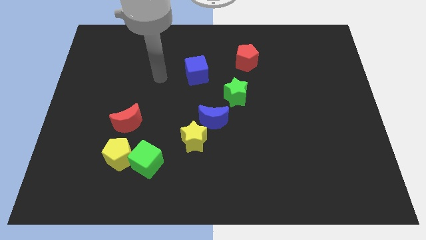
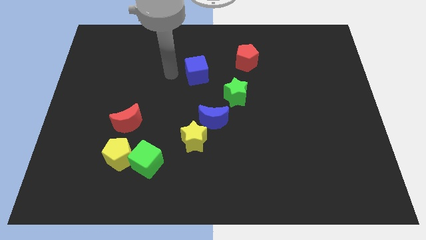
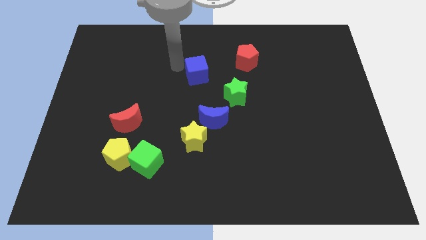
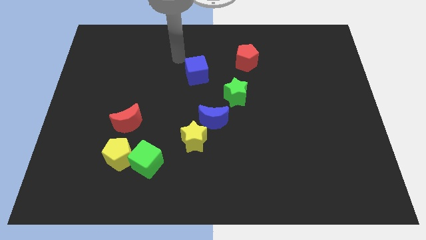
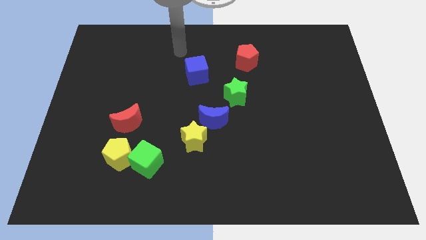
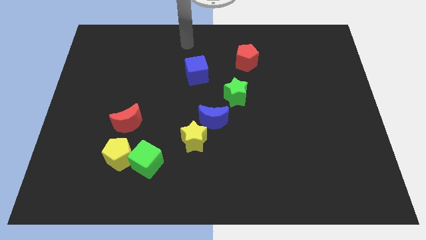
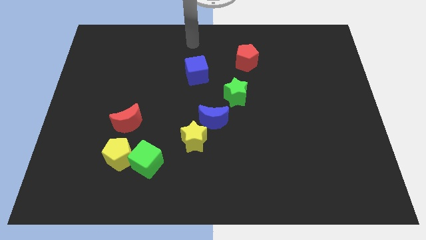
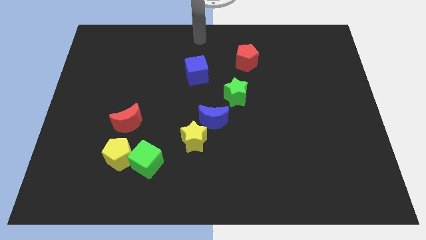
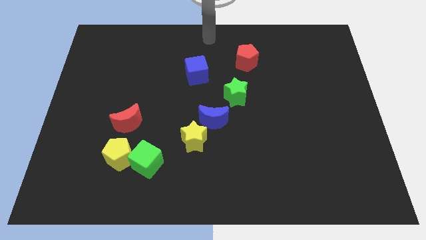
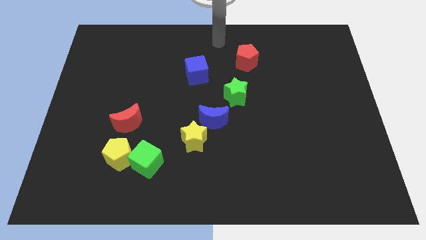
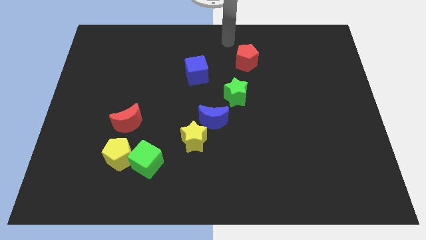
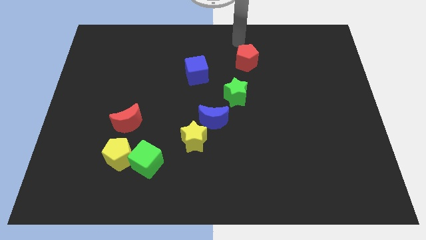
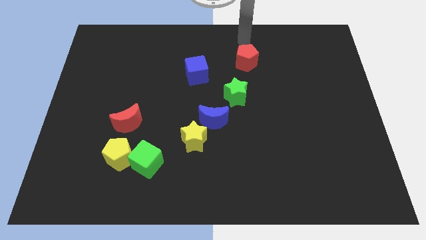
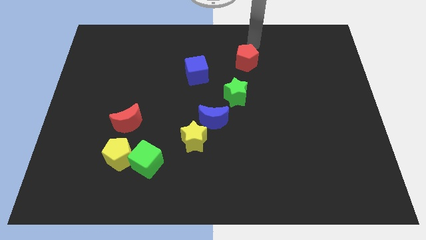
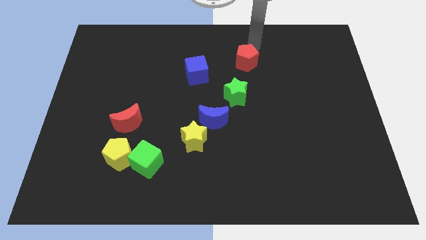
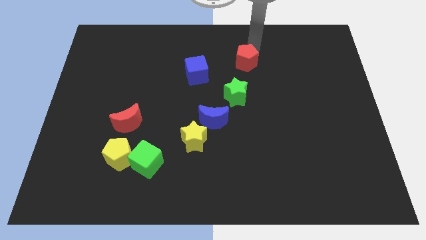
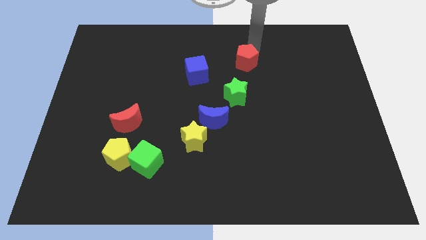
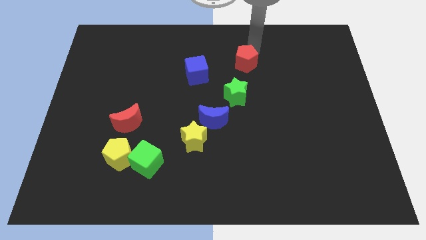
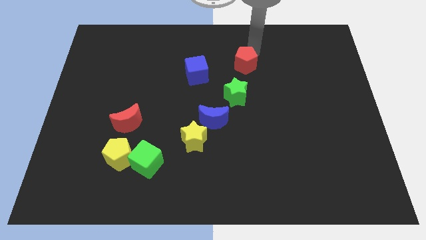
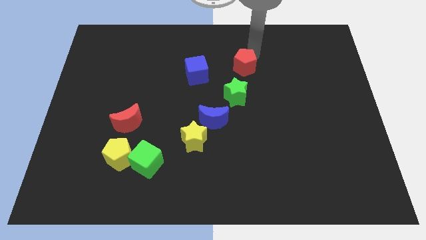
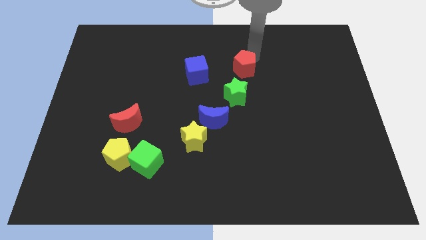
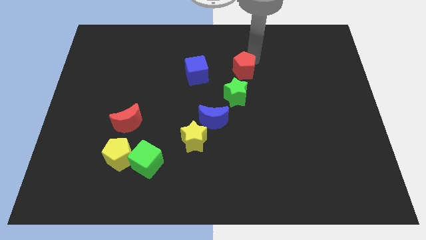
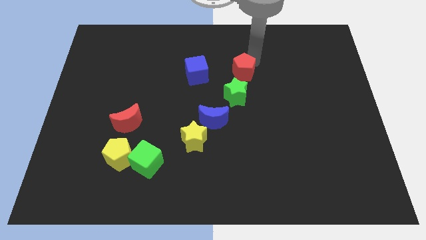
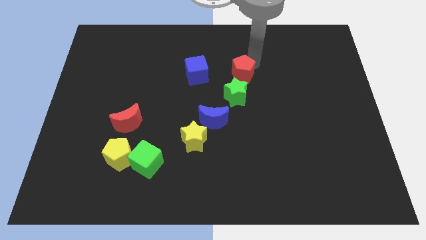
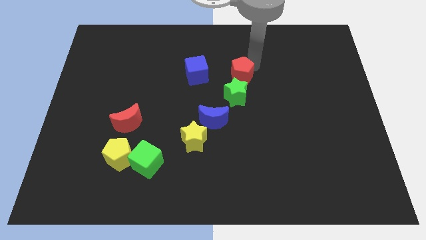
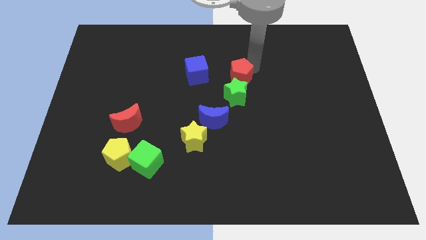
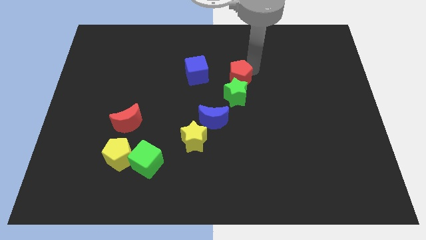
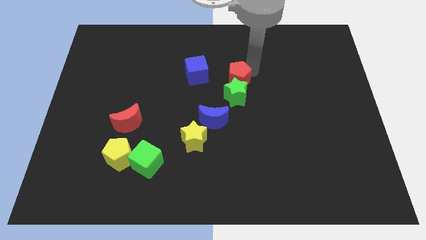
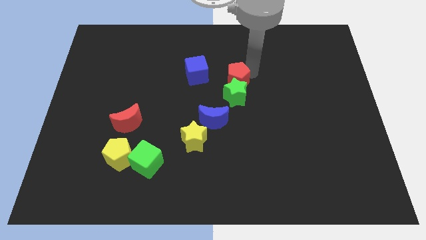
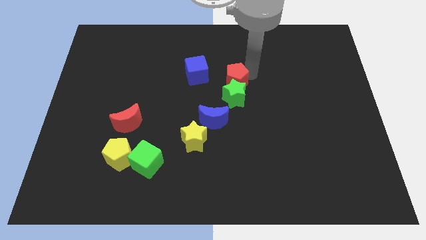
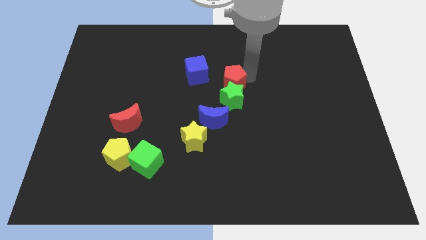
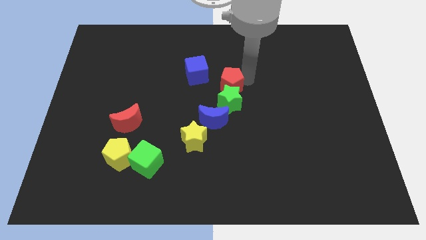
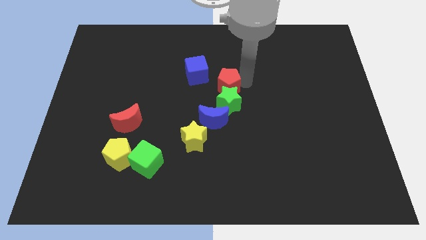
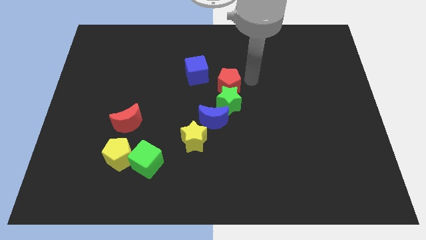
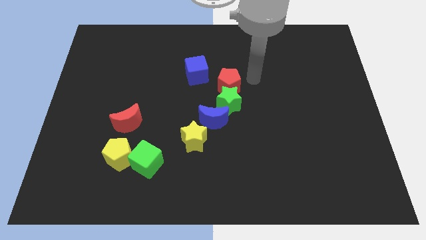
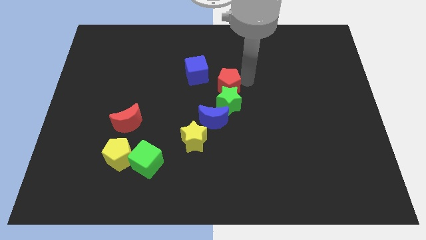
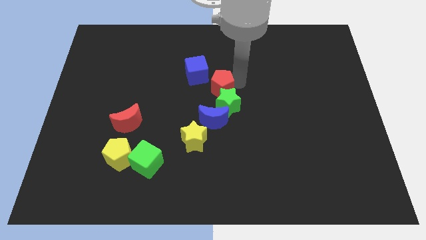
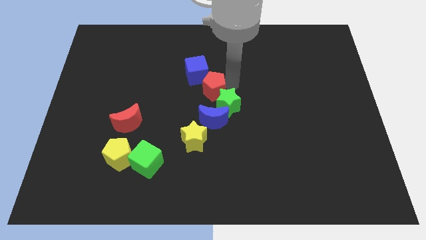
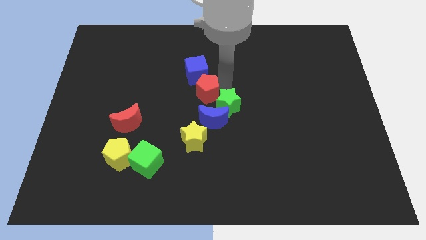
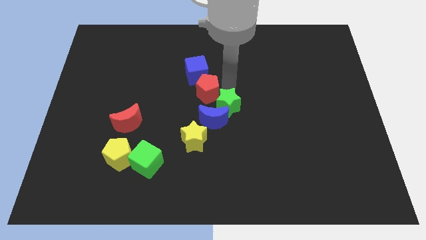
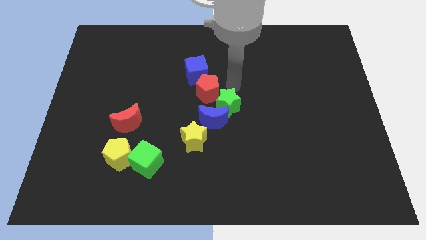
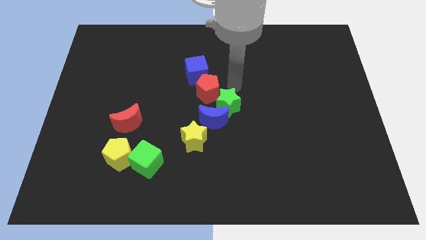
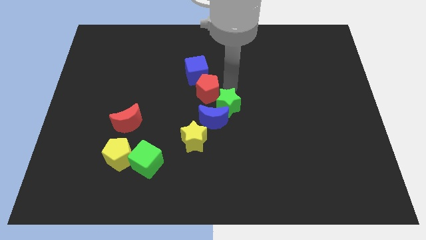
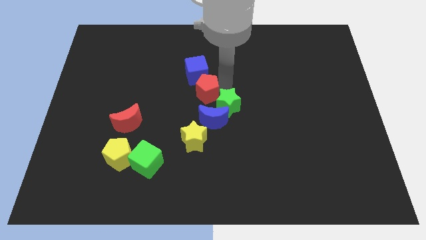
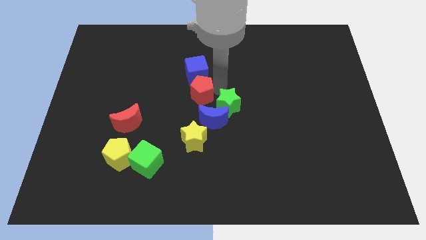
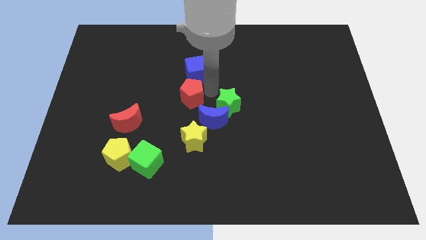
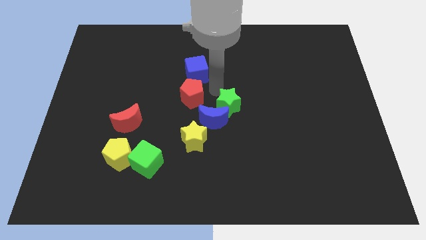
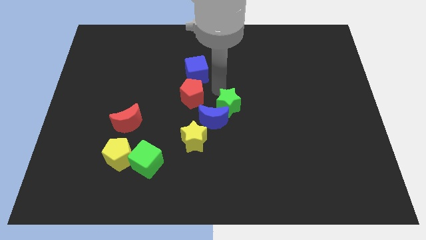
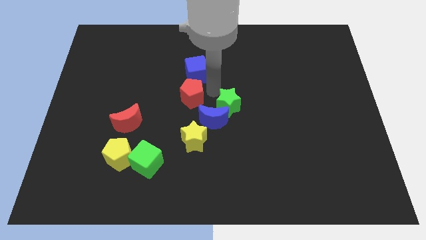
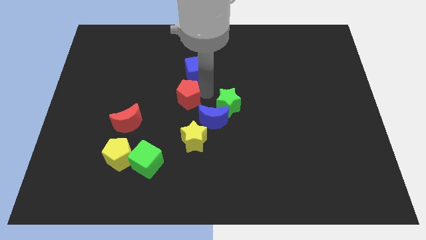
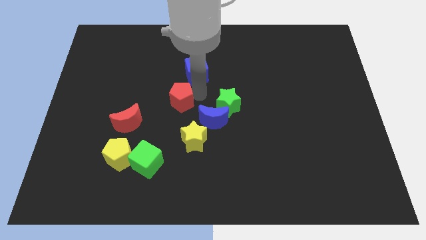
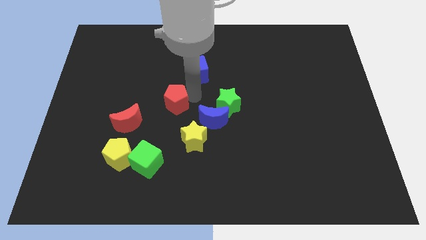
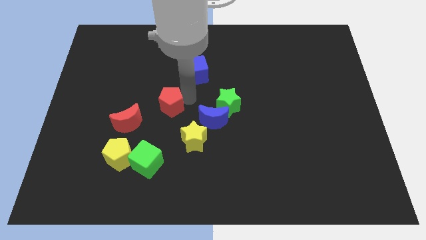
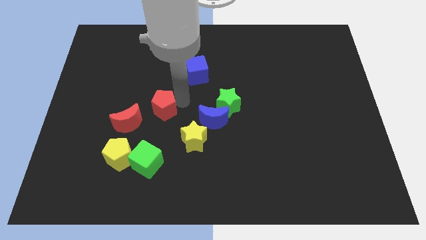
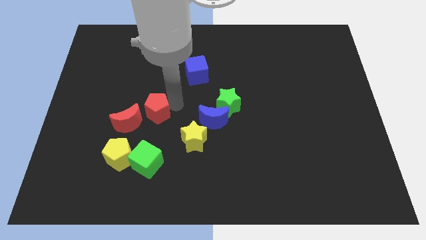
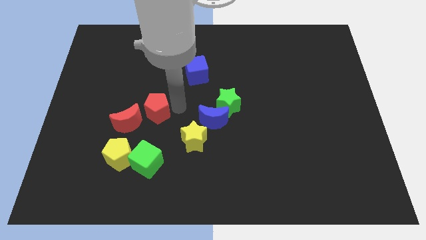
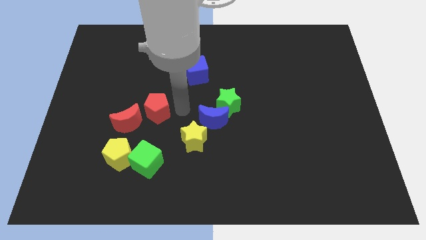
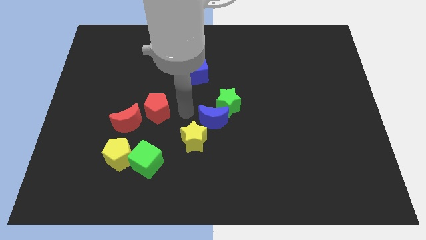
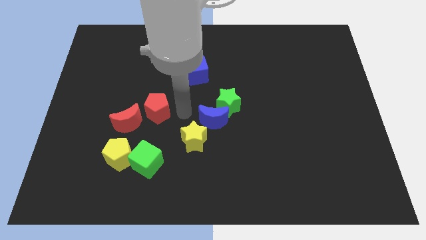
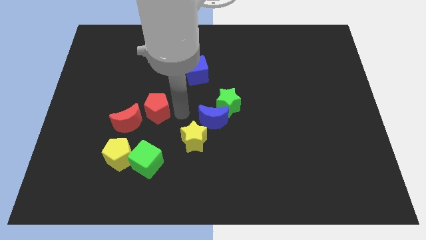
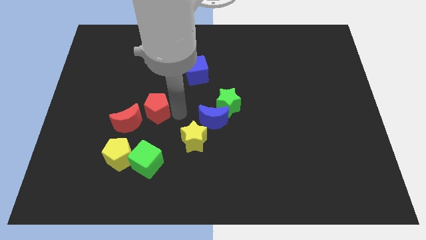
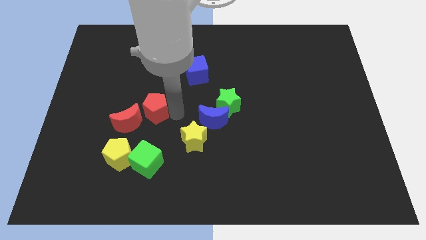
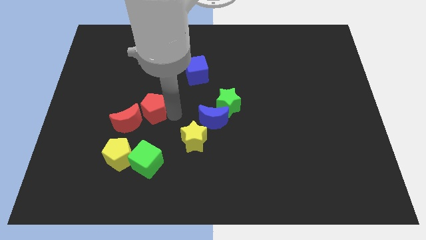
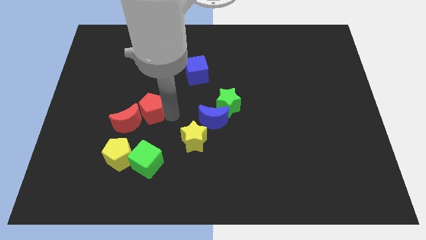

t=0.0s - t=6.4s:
move the red pentagon towards the red moon

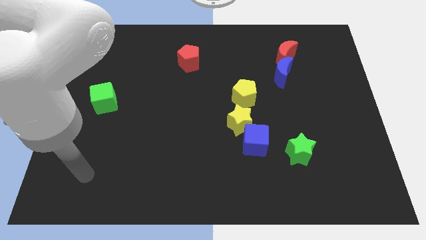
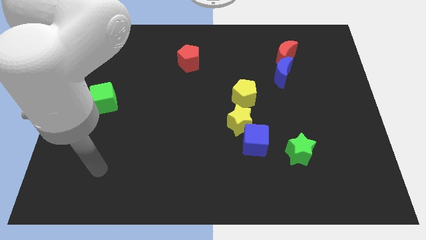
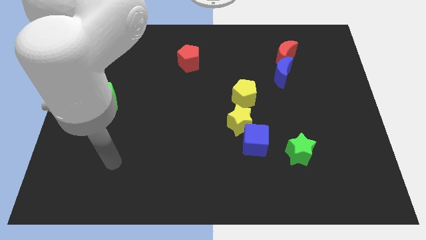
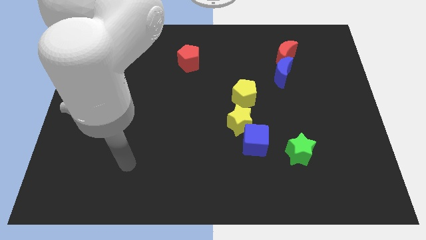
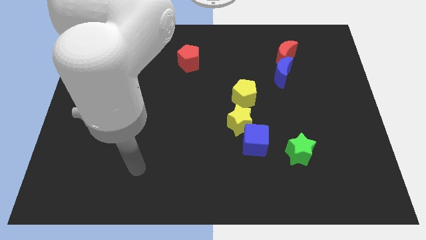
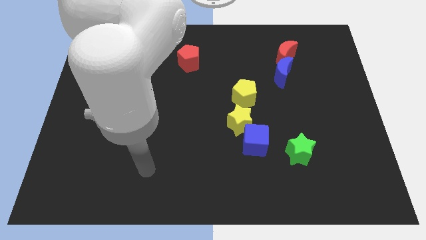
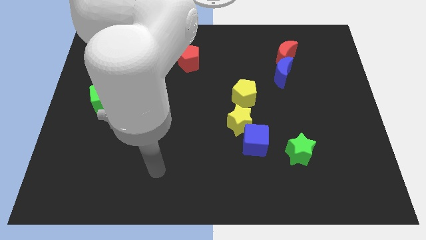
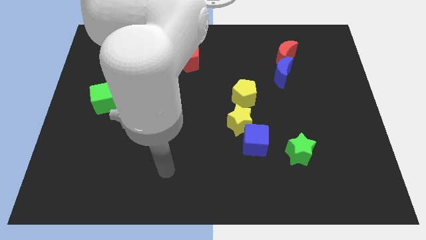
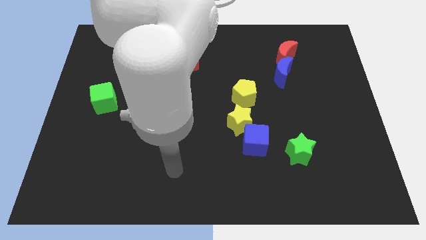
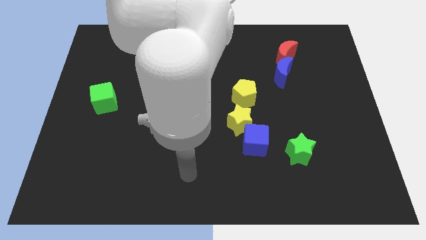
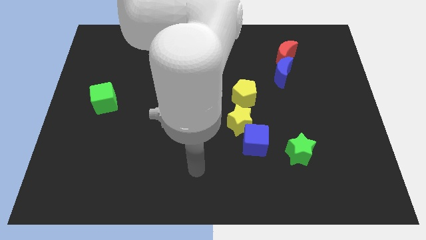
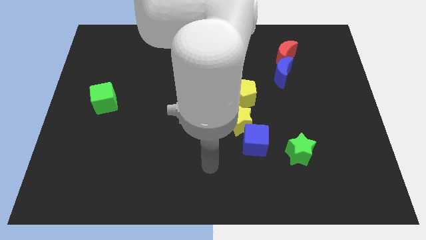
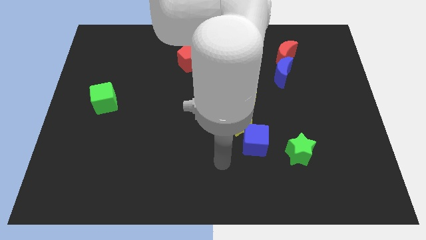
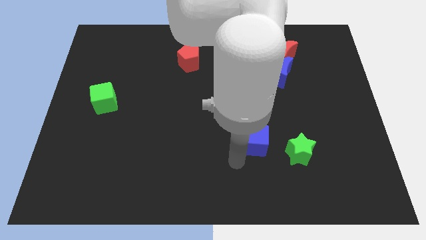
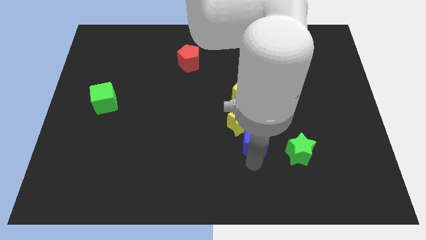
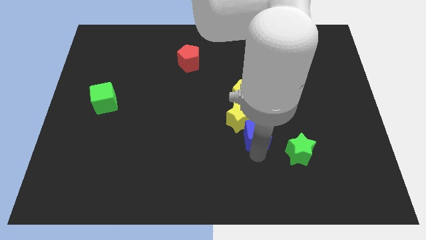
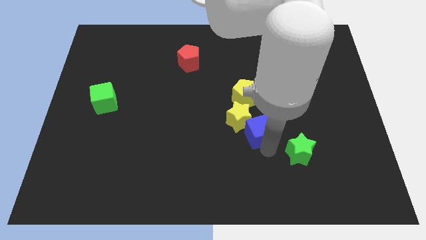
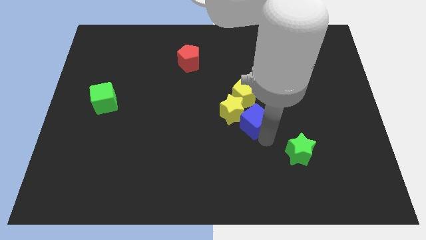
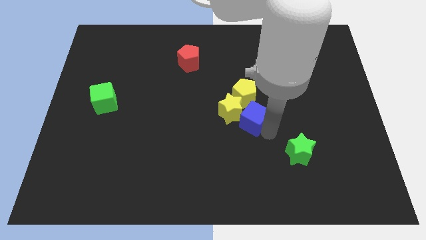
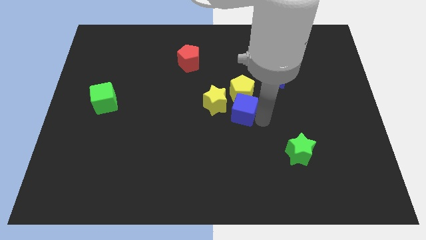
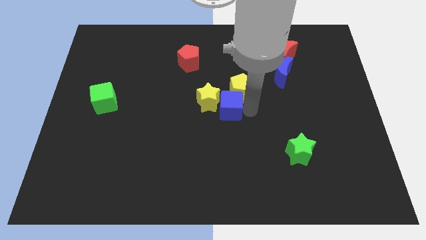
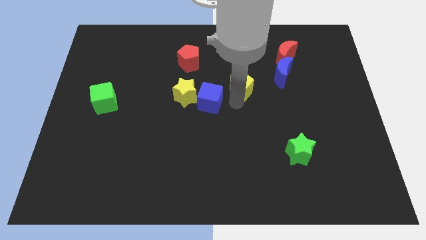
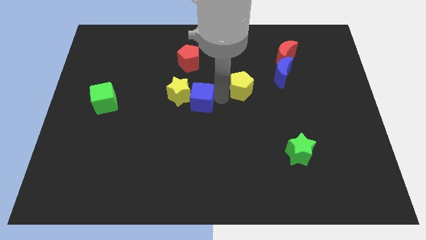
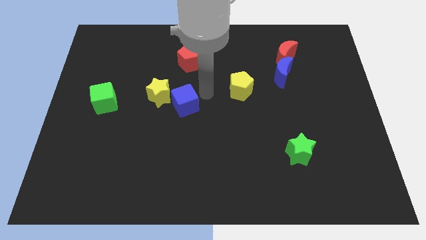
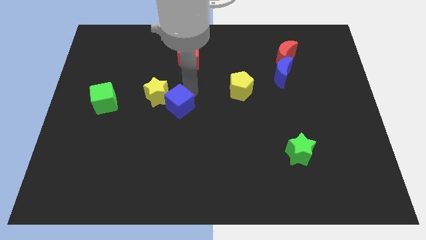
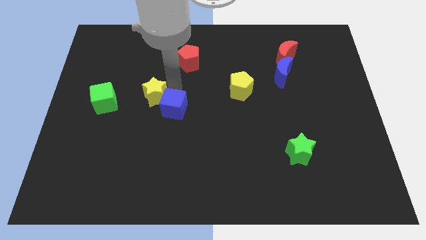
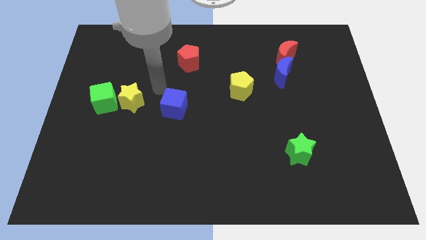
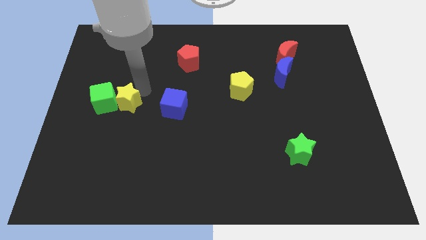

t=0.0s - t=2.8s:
move the yellow star close to the green cube
